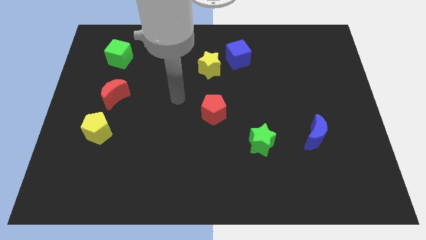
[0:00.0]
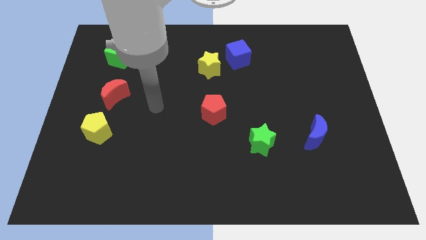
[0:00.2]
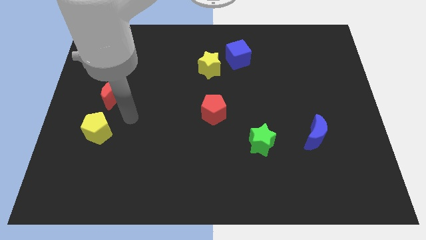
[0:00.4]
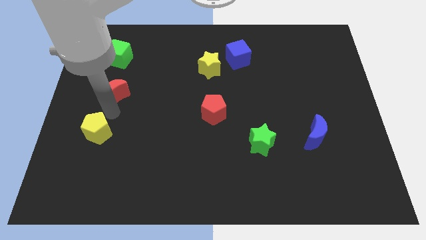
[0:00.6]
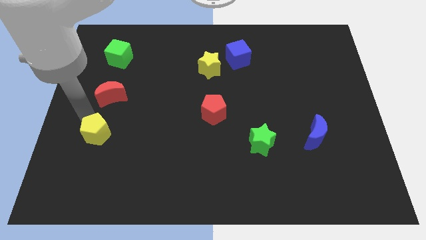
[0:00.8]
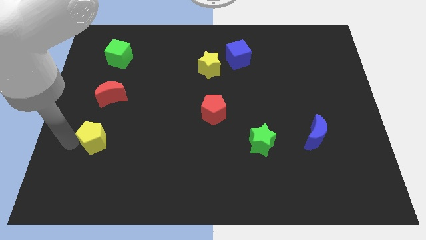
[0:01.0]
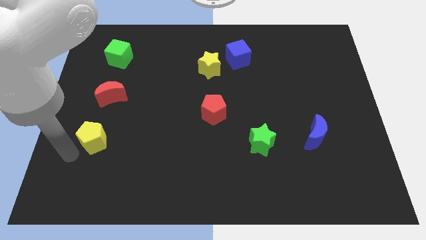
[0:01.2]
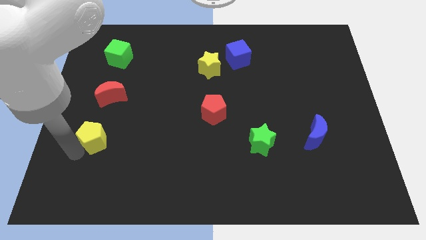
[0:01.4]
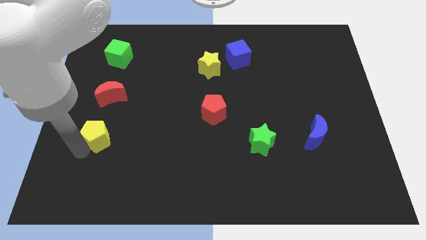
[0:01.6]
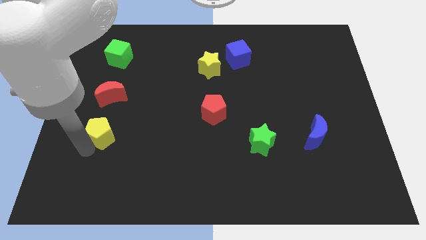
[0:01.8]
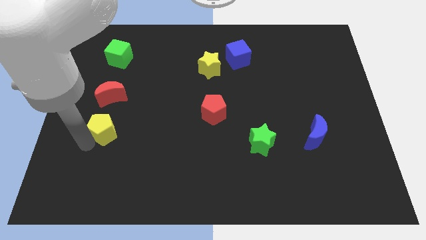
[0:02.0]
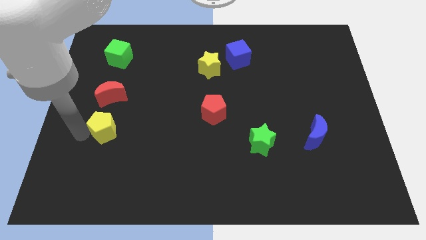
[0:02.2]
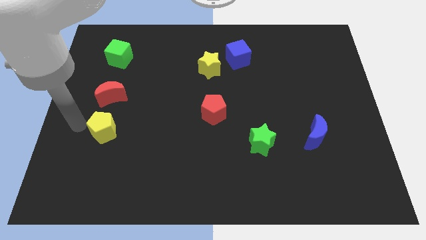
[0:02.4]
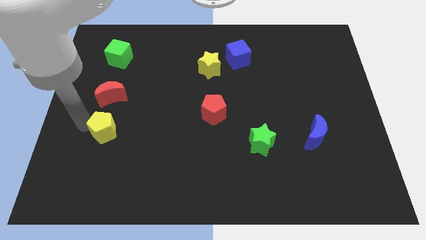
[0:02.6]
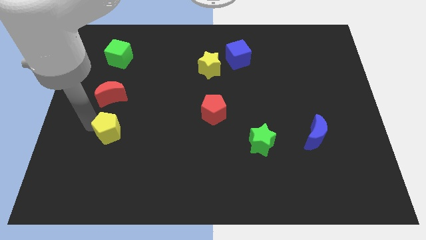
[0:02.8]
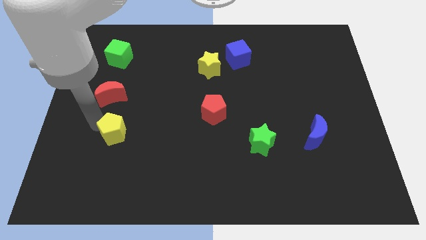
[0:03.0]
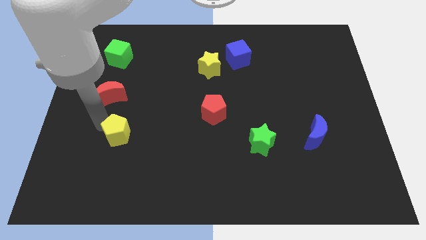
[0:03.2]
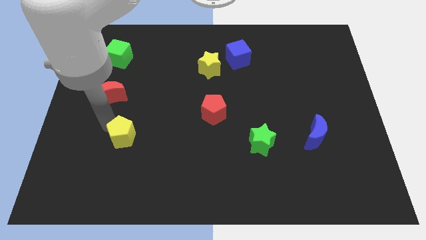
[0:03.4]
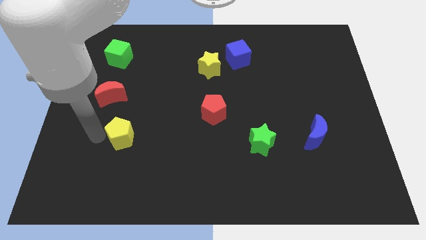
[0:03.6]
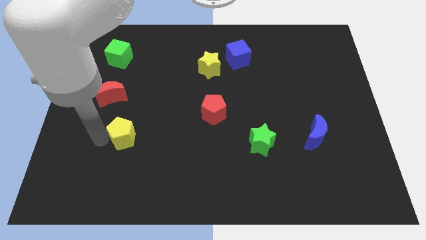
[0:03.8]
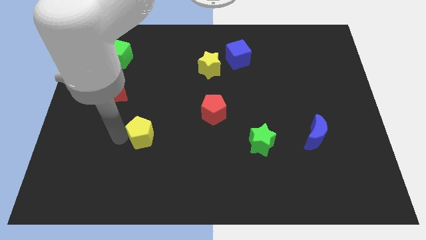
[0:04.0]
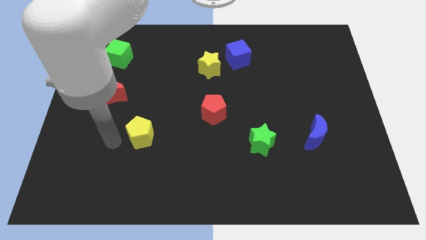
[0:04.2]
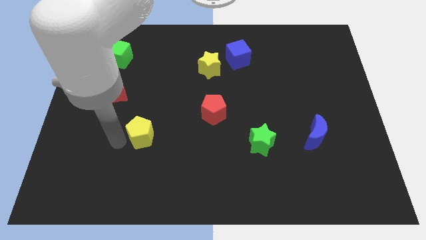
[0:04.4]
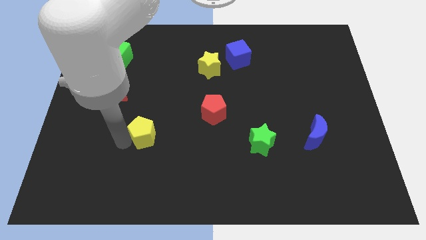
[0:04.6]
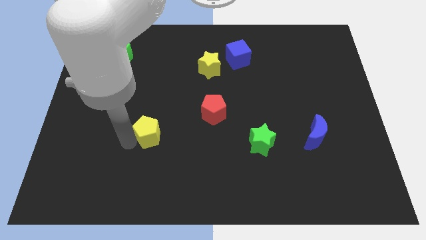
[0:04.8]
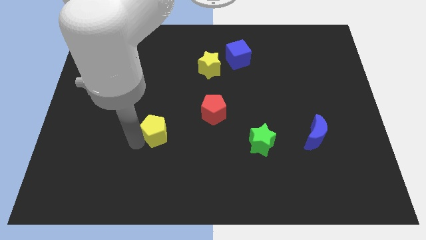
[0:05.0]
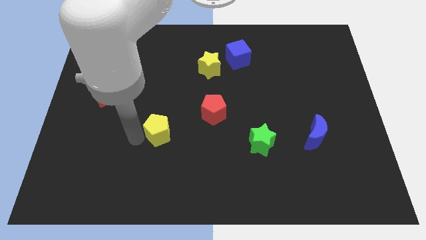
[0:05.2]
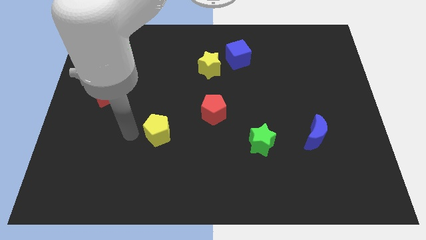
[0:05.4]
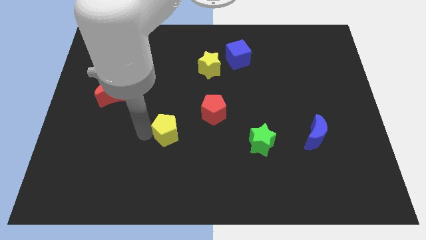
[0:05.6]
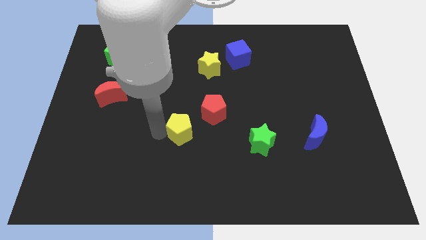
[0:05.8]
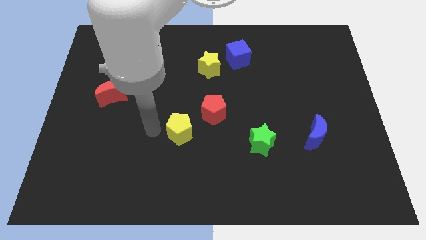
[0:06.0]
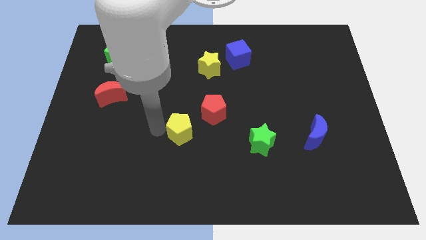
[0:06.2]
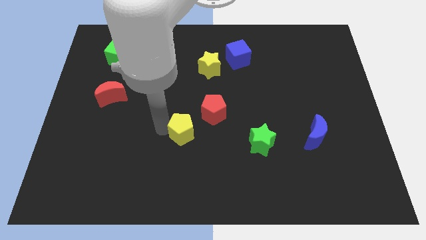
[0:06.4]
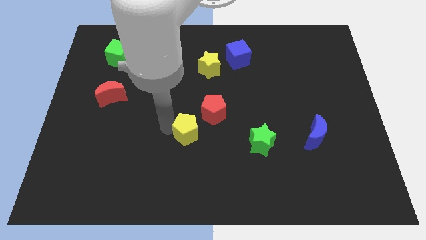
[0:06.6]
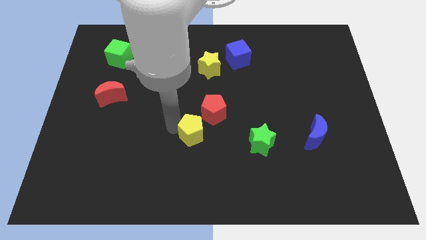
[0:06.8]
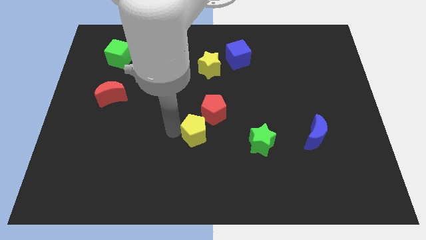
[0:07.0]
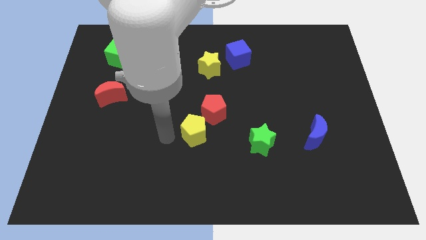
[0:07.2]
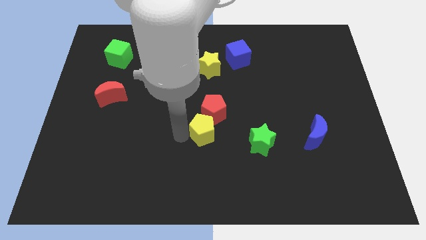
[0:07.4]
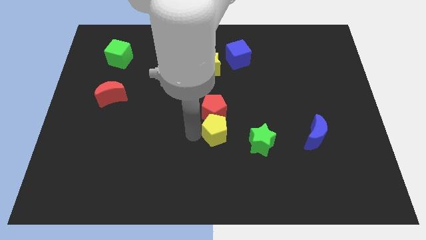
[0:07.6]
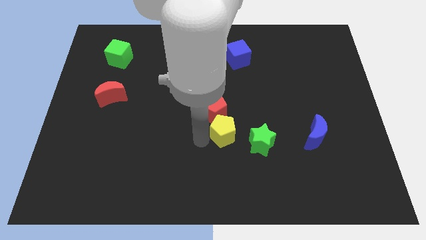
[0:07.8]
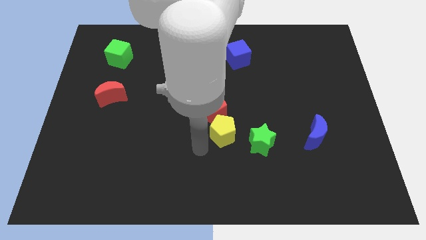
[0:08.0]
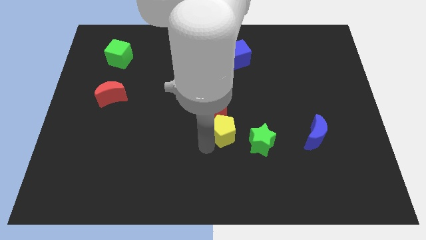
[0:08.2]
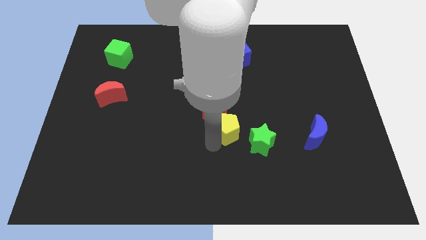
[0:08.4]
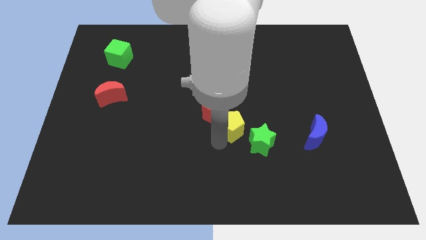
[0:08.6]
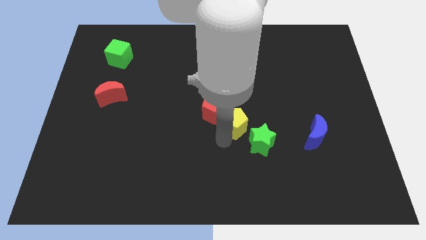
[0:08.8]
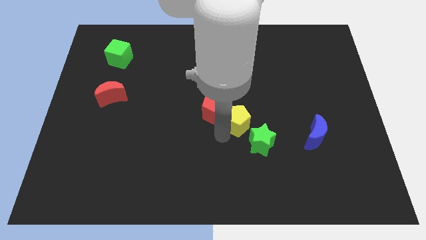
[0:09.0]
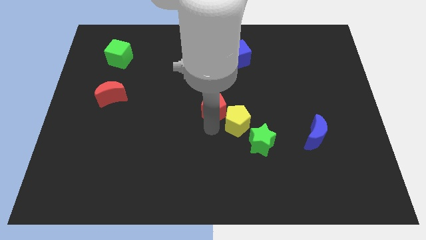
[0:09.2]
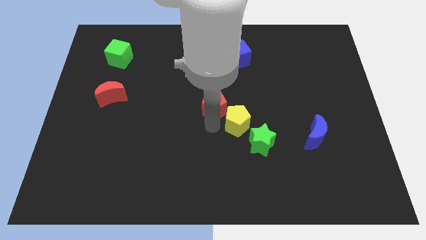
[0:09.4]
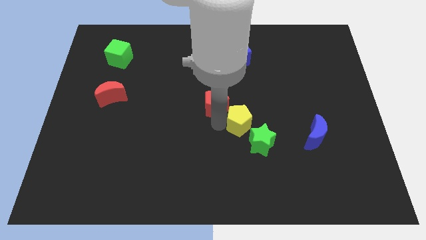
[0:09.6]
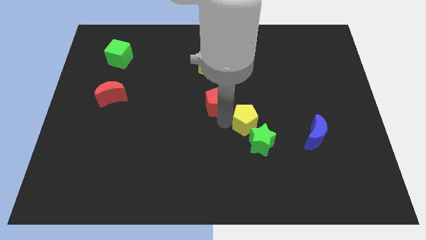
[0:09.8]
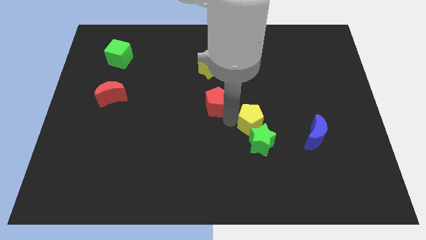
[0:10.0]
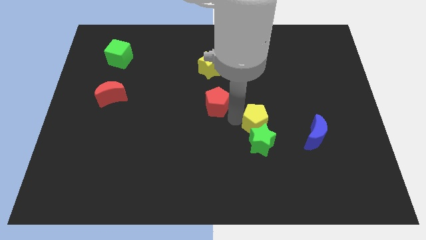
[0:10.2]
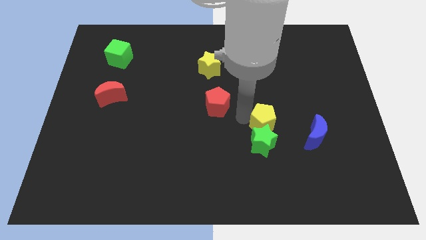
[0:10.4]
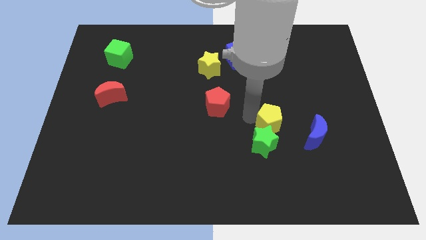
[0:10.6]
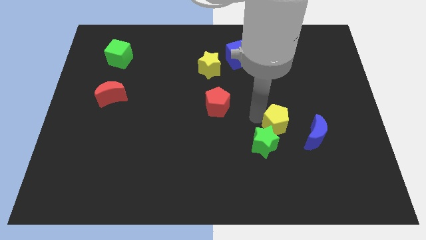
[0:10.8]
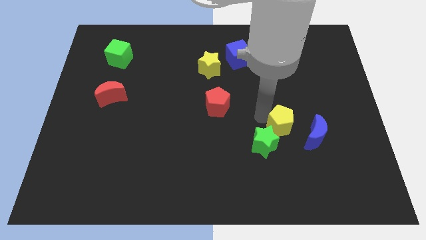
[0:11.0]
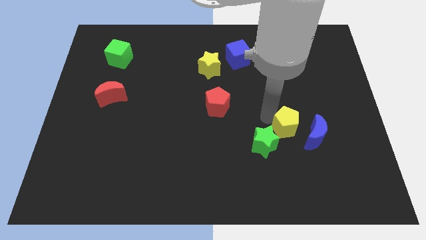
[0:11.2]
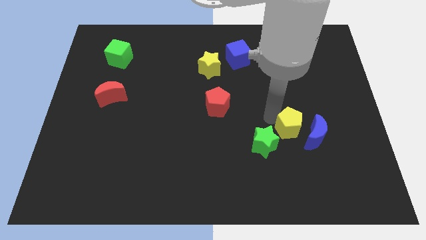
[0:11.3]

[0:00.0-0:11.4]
move the yellow pentagon close to the blue moon

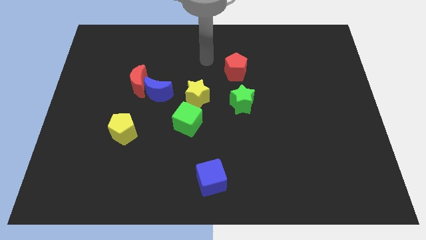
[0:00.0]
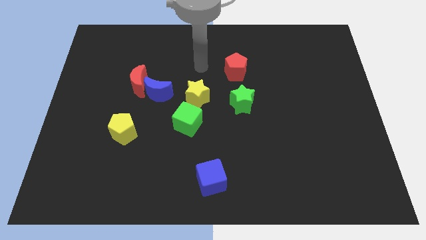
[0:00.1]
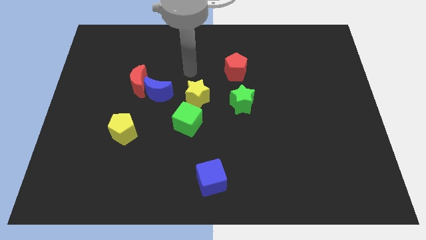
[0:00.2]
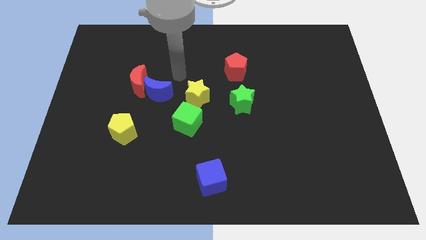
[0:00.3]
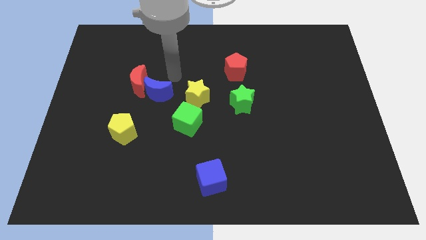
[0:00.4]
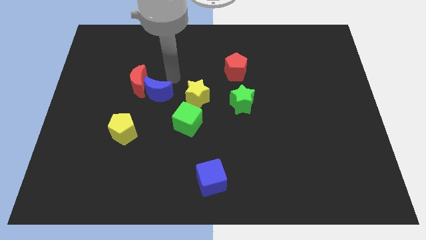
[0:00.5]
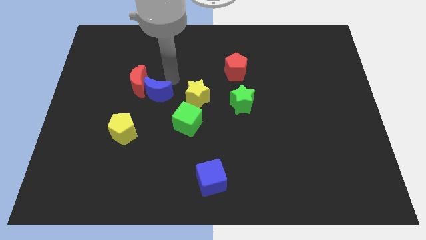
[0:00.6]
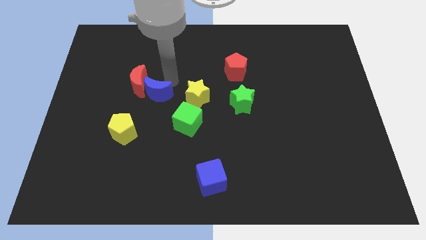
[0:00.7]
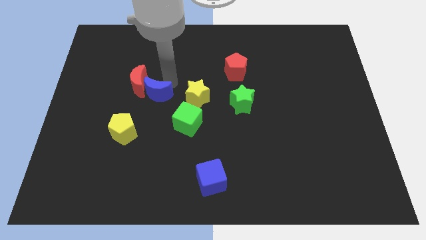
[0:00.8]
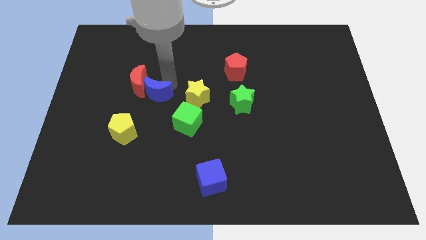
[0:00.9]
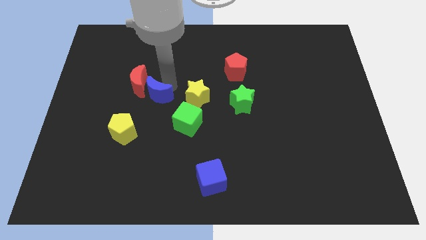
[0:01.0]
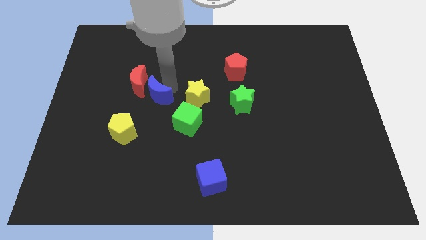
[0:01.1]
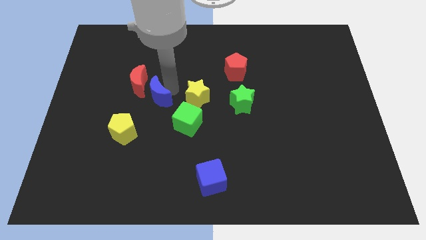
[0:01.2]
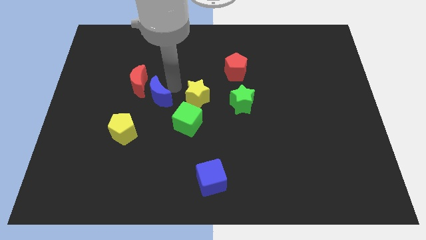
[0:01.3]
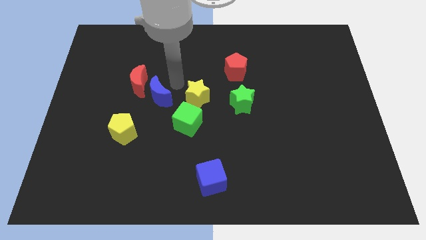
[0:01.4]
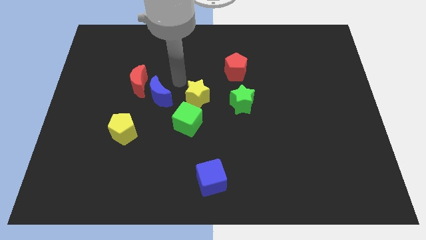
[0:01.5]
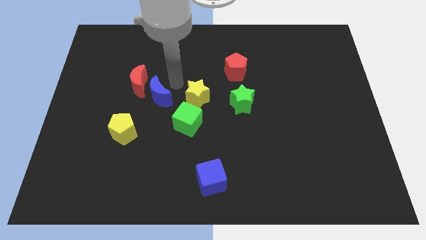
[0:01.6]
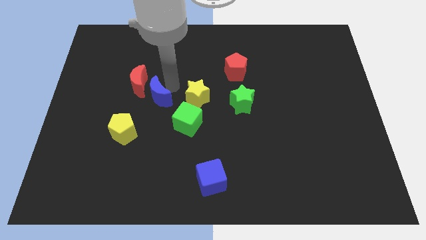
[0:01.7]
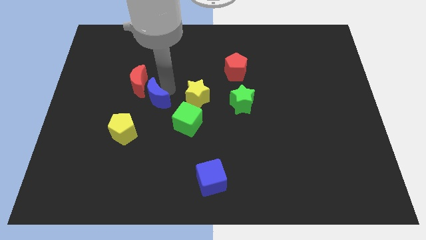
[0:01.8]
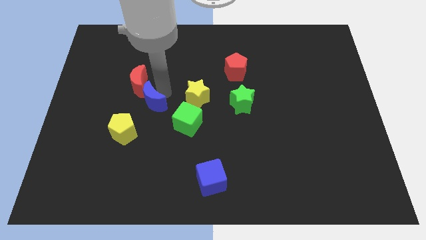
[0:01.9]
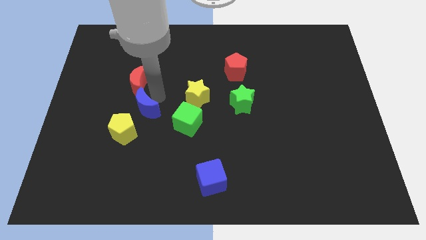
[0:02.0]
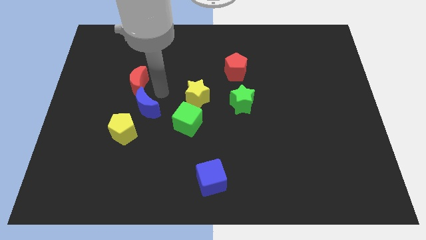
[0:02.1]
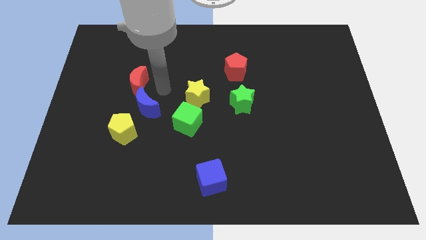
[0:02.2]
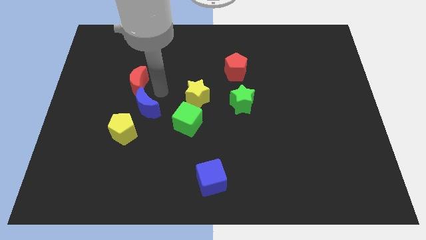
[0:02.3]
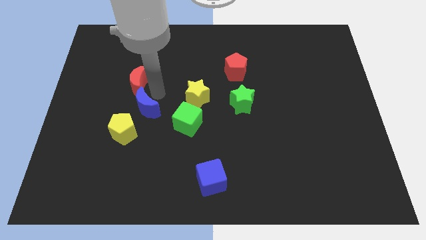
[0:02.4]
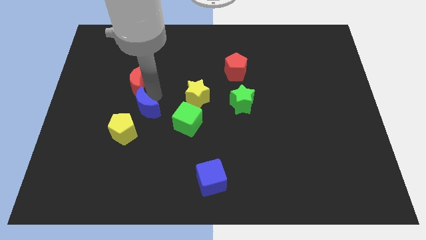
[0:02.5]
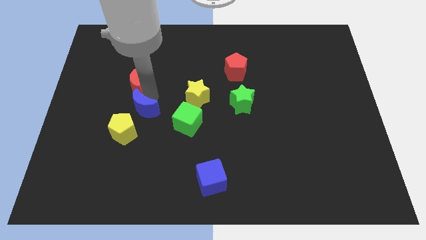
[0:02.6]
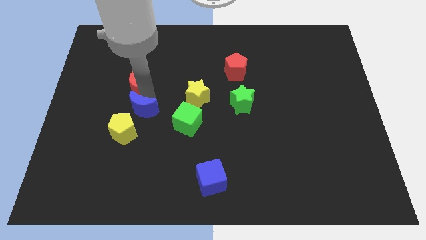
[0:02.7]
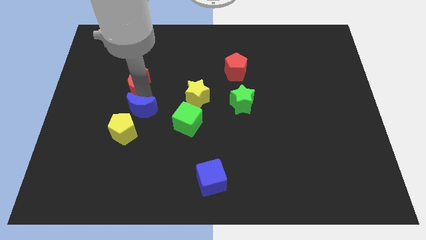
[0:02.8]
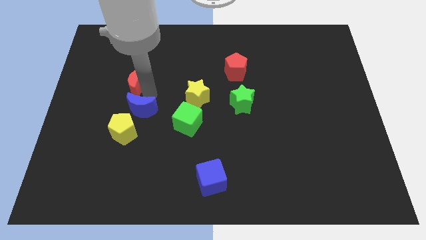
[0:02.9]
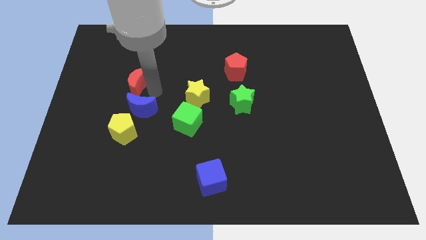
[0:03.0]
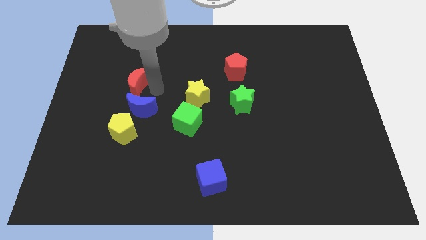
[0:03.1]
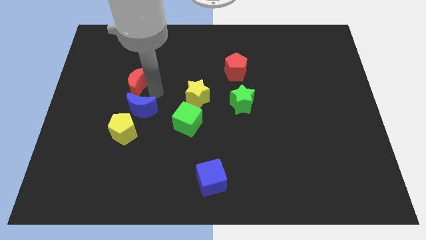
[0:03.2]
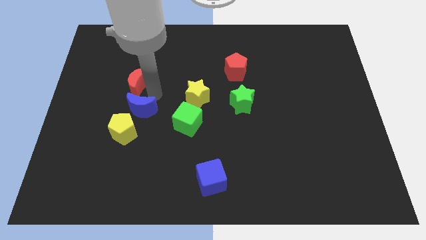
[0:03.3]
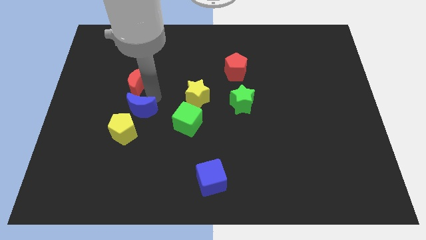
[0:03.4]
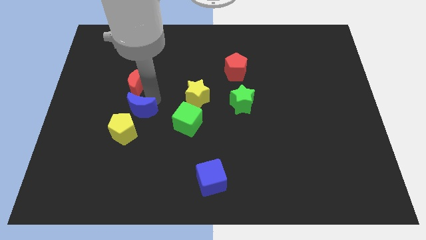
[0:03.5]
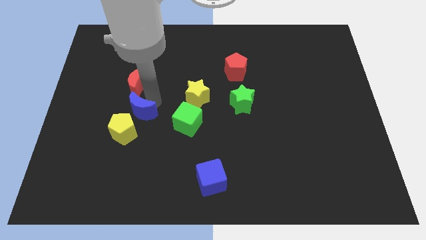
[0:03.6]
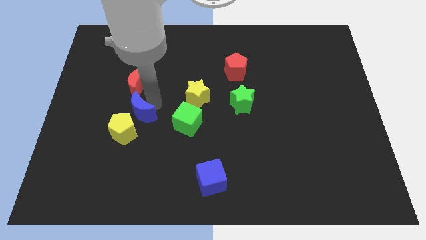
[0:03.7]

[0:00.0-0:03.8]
slide the blue moon to the yellow pentagon
